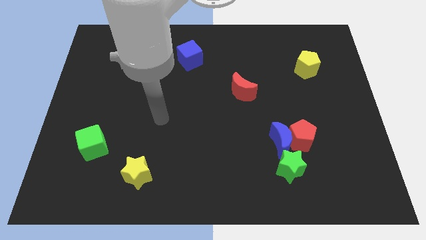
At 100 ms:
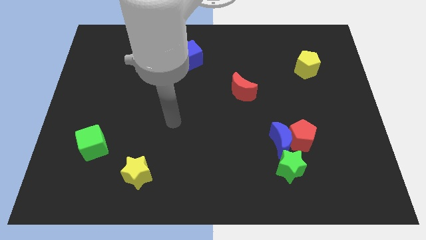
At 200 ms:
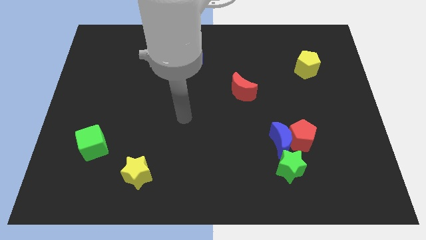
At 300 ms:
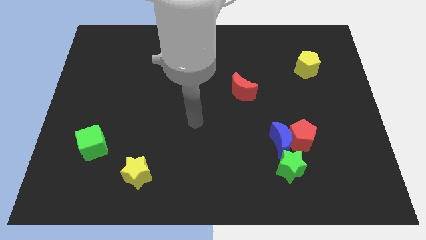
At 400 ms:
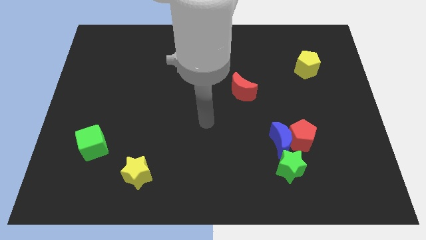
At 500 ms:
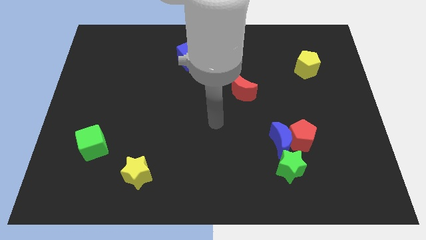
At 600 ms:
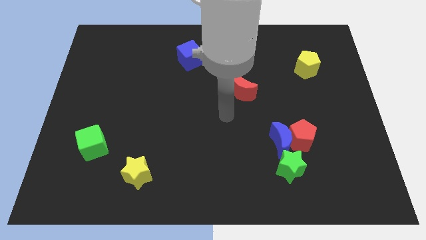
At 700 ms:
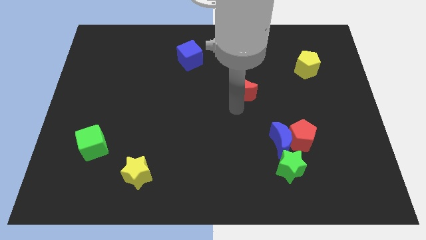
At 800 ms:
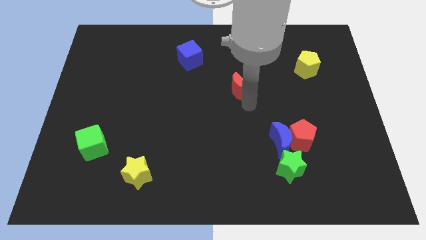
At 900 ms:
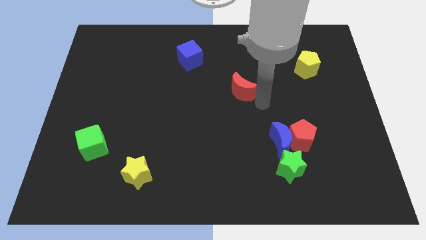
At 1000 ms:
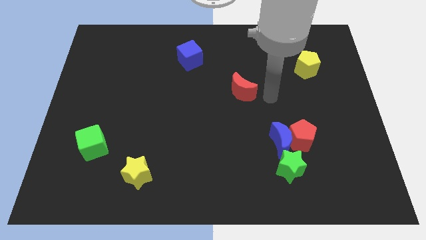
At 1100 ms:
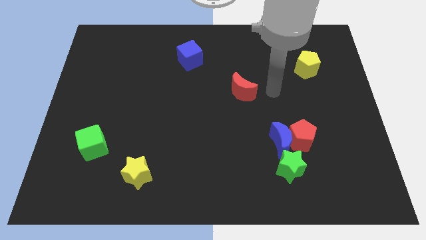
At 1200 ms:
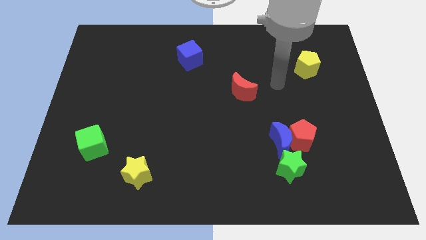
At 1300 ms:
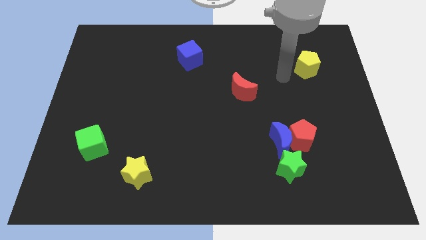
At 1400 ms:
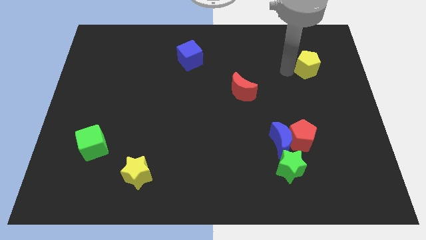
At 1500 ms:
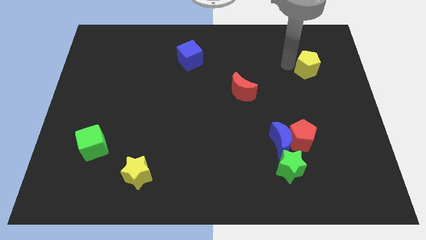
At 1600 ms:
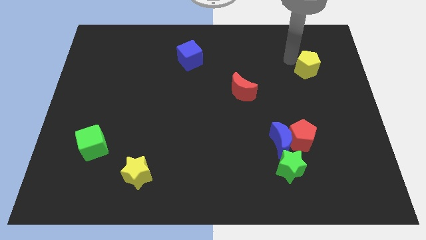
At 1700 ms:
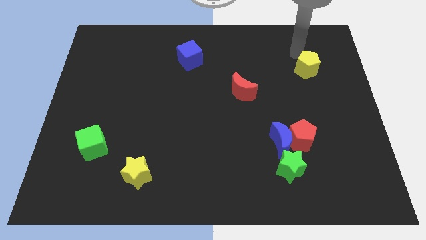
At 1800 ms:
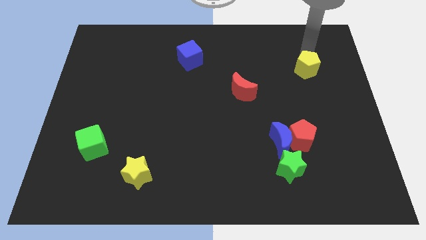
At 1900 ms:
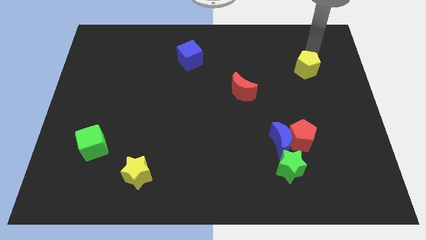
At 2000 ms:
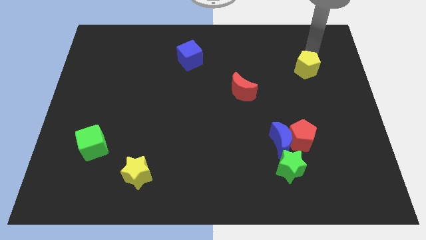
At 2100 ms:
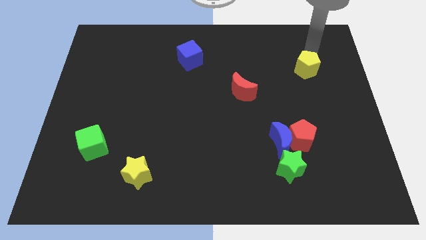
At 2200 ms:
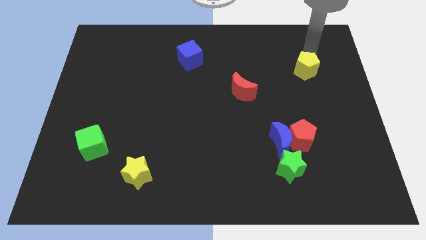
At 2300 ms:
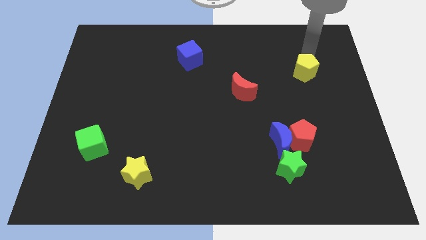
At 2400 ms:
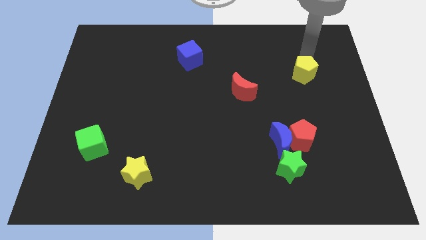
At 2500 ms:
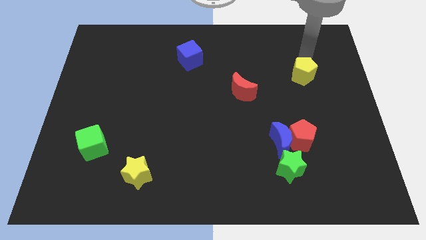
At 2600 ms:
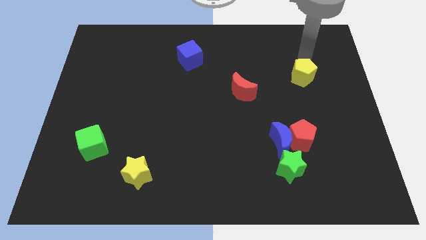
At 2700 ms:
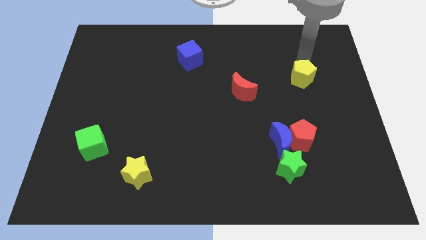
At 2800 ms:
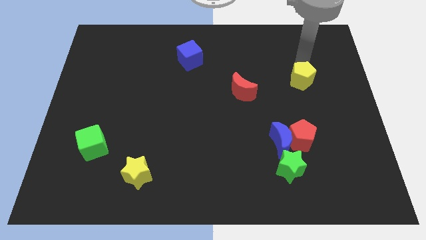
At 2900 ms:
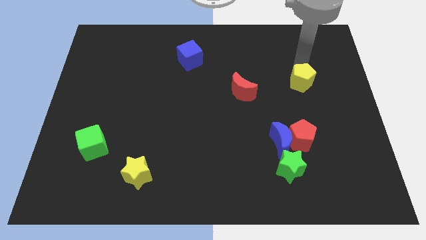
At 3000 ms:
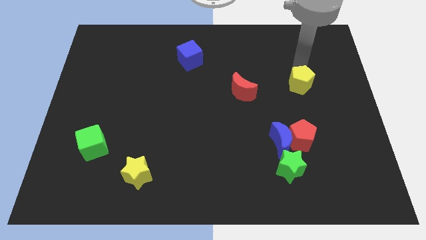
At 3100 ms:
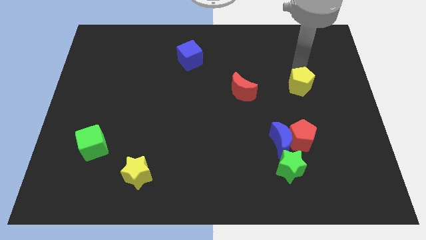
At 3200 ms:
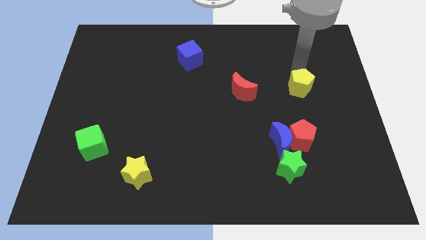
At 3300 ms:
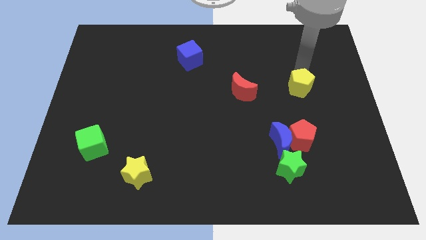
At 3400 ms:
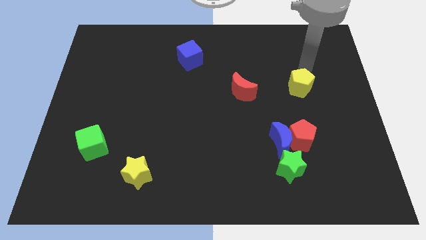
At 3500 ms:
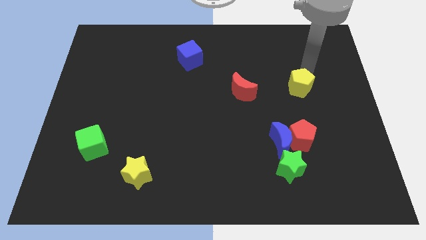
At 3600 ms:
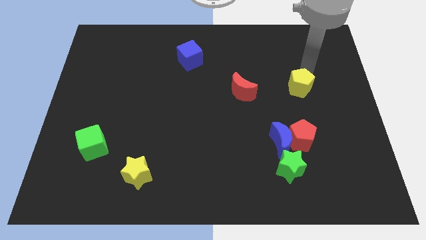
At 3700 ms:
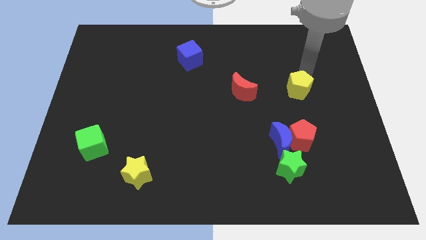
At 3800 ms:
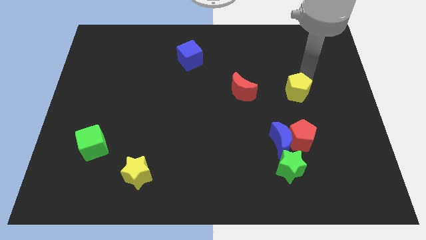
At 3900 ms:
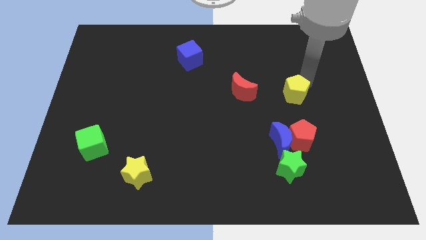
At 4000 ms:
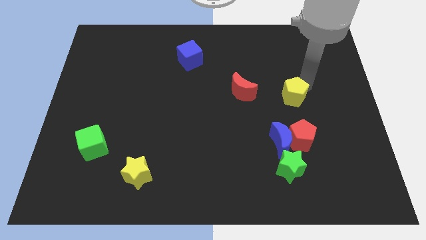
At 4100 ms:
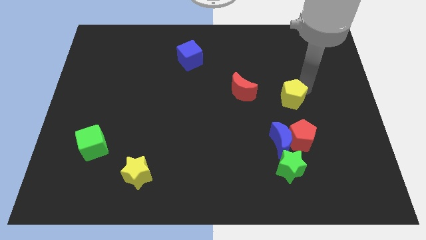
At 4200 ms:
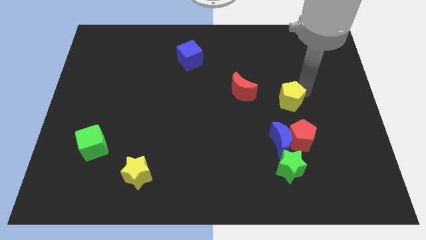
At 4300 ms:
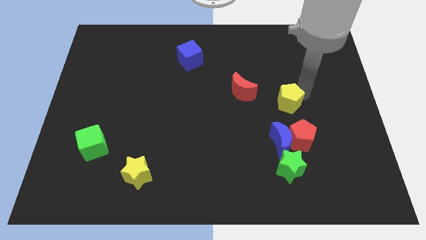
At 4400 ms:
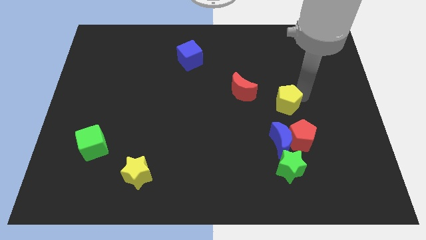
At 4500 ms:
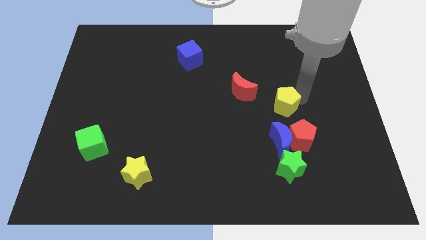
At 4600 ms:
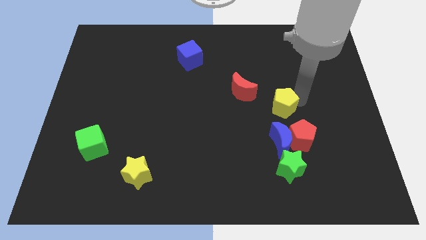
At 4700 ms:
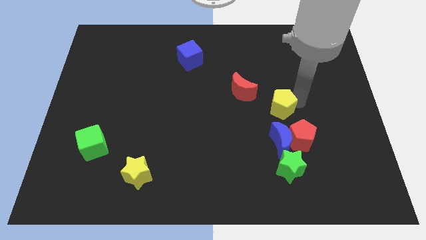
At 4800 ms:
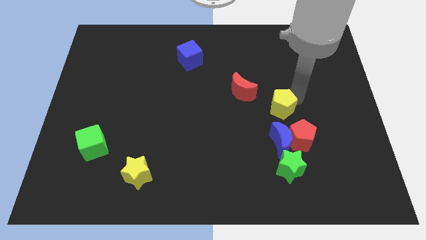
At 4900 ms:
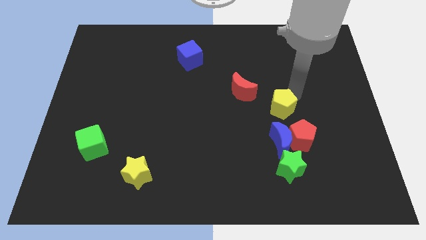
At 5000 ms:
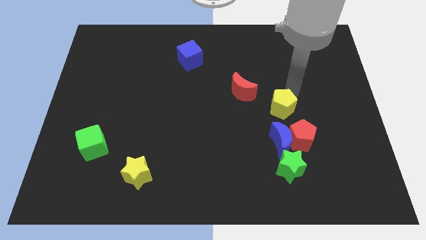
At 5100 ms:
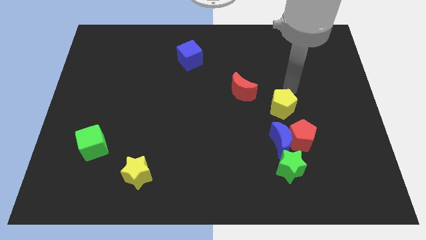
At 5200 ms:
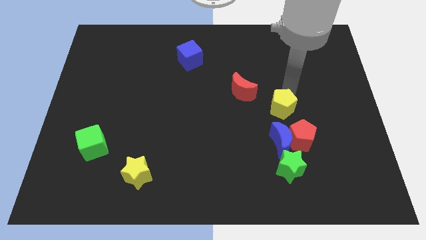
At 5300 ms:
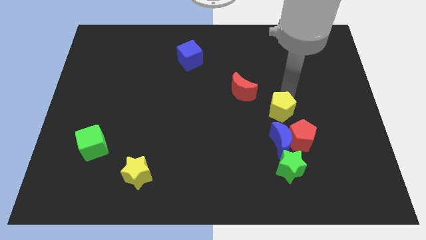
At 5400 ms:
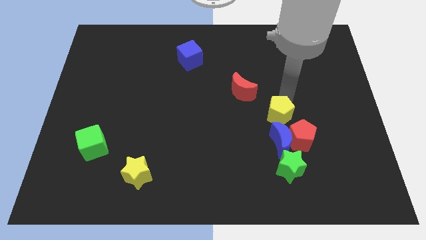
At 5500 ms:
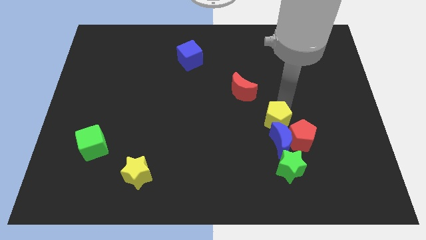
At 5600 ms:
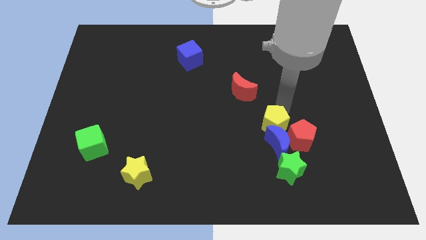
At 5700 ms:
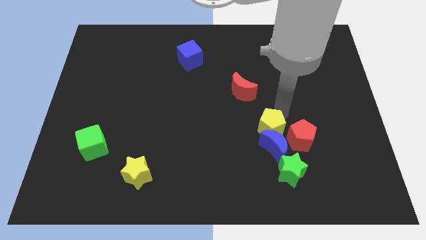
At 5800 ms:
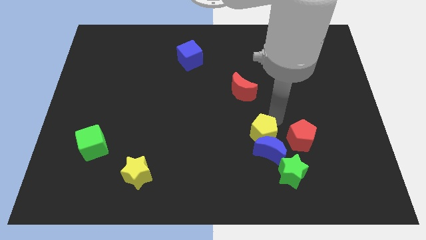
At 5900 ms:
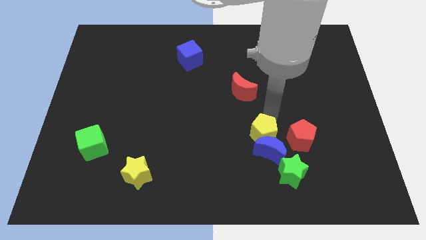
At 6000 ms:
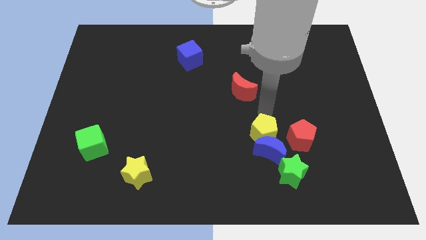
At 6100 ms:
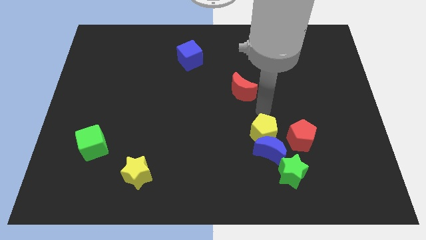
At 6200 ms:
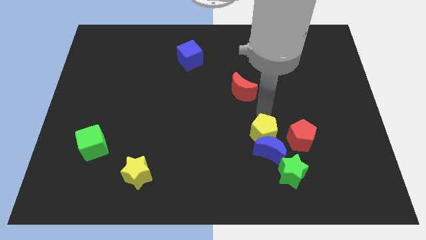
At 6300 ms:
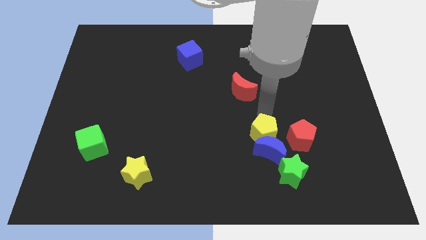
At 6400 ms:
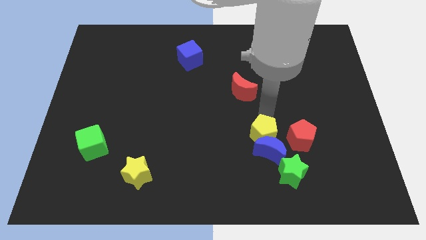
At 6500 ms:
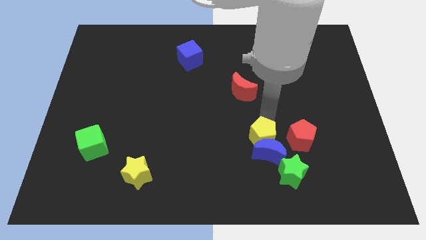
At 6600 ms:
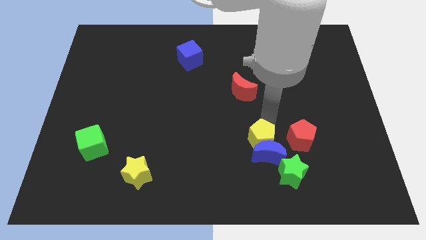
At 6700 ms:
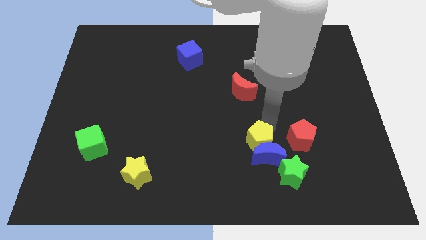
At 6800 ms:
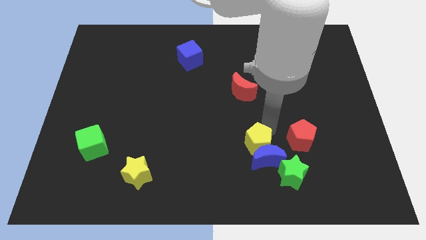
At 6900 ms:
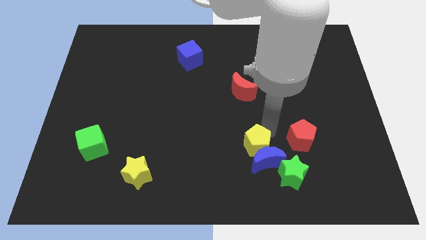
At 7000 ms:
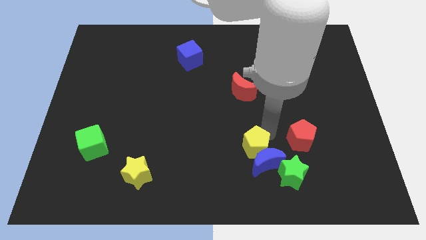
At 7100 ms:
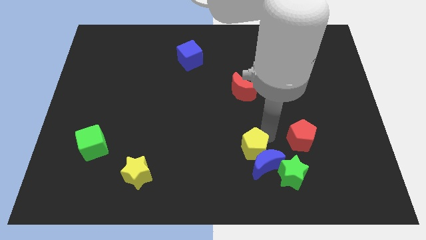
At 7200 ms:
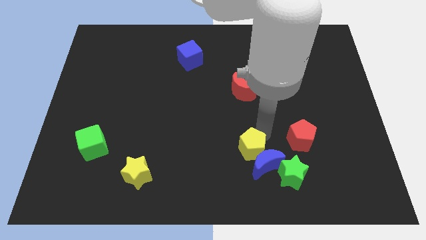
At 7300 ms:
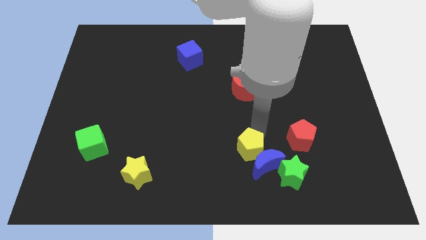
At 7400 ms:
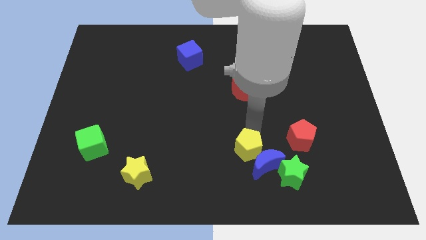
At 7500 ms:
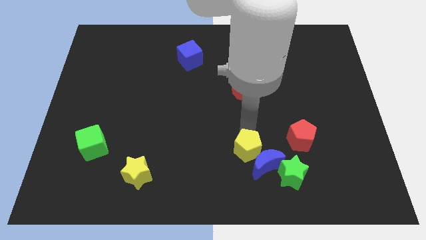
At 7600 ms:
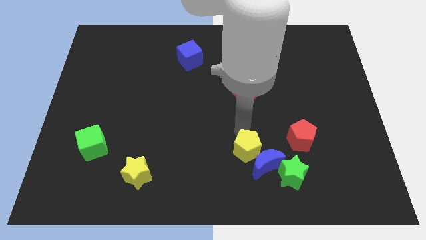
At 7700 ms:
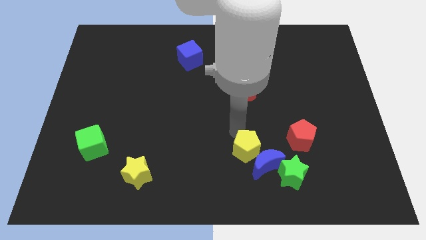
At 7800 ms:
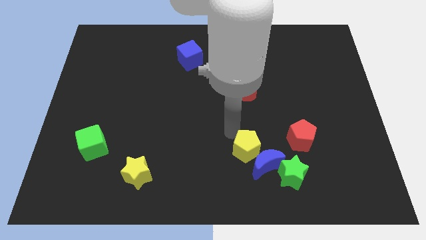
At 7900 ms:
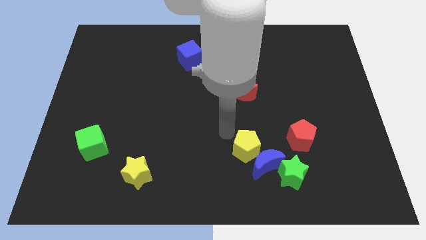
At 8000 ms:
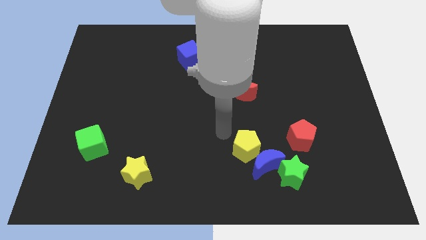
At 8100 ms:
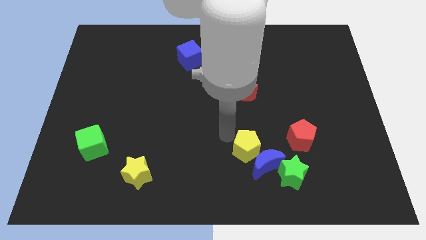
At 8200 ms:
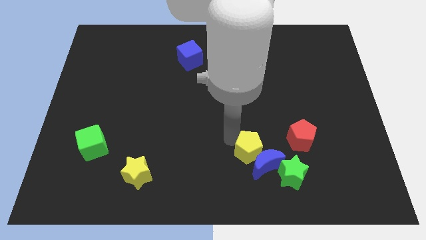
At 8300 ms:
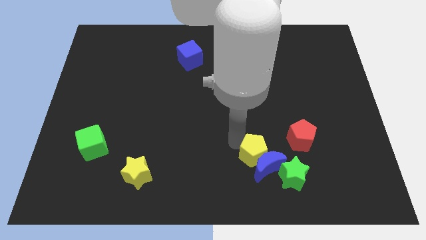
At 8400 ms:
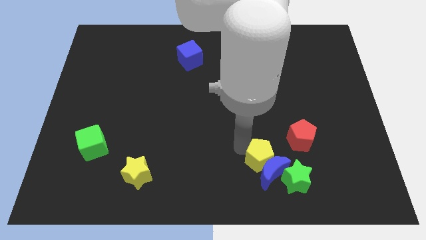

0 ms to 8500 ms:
move the yellow pentagon to the bottom left of the red pentagon
